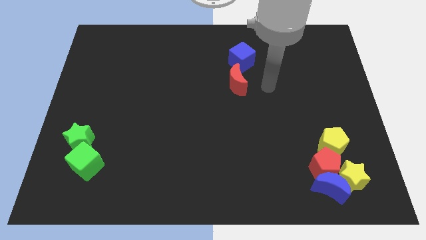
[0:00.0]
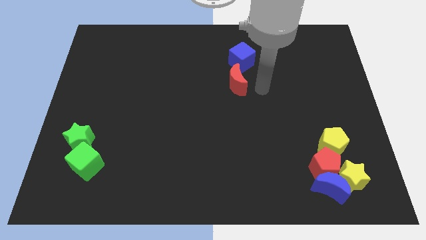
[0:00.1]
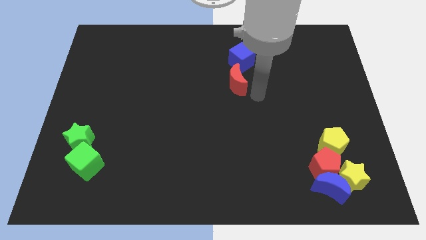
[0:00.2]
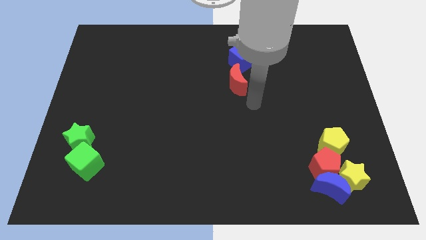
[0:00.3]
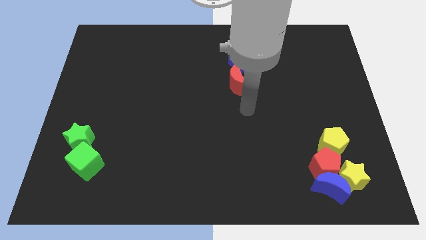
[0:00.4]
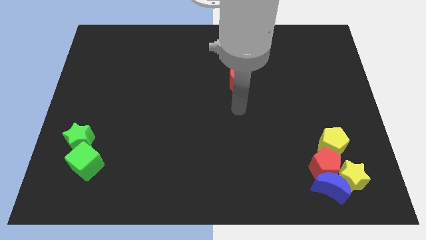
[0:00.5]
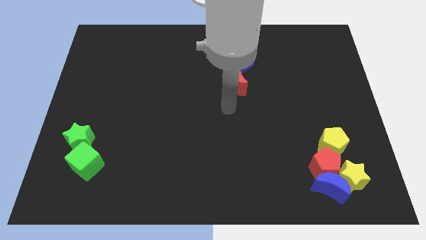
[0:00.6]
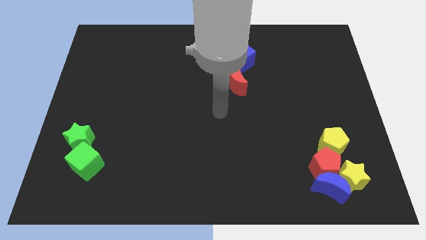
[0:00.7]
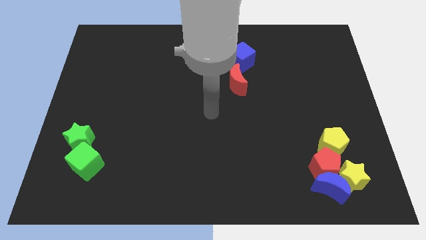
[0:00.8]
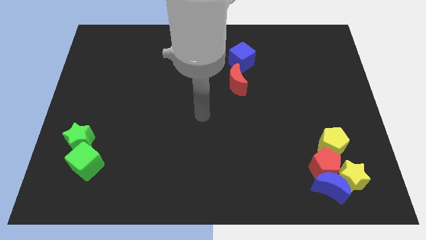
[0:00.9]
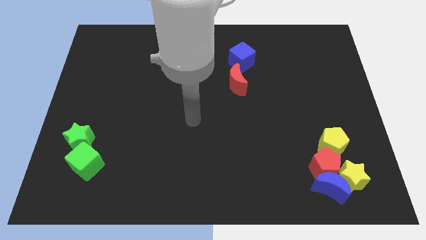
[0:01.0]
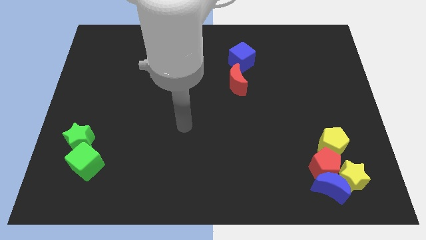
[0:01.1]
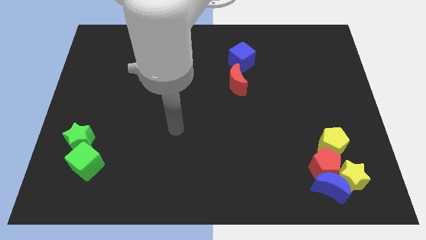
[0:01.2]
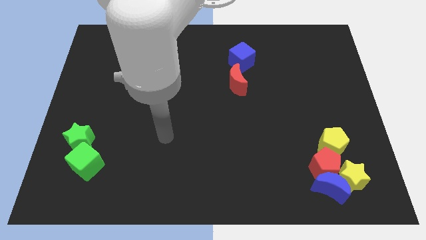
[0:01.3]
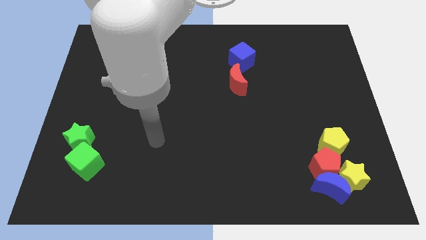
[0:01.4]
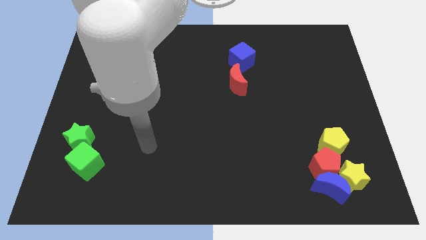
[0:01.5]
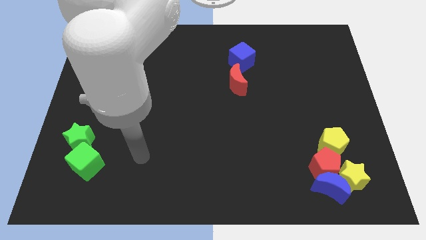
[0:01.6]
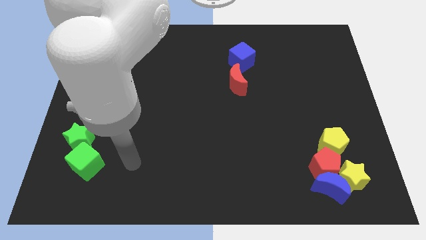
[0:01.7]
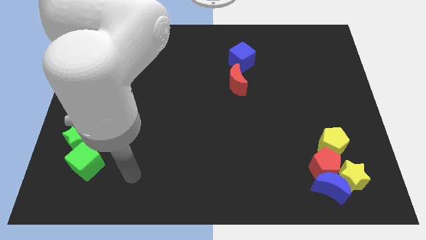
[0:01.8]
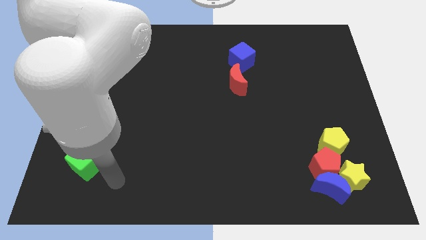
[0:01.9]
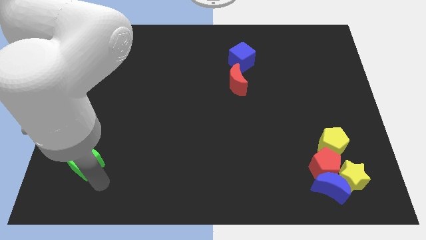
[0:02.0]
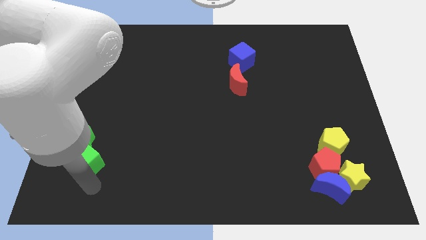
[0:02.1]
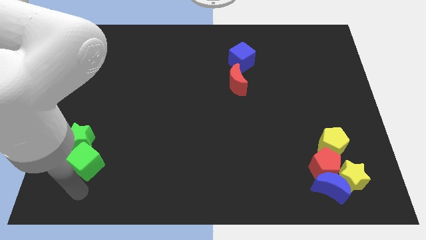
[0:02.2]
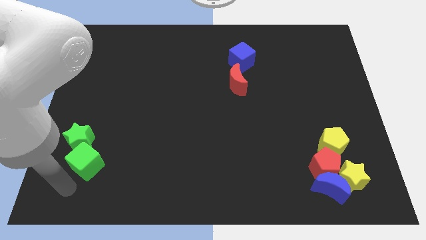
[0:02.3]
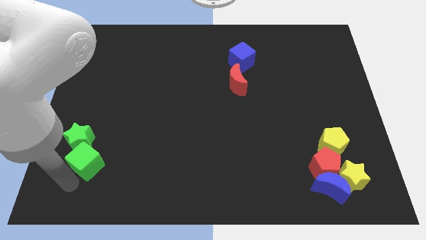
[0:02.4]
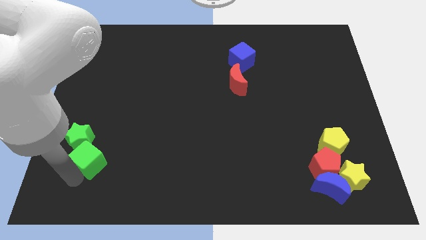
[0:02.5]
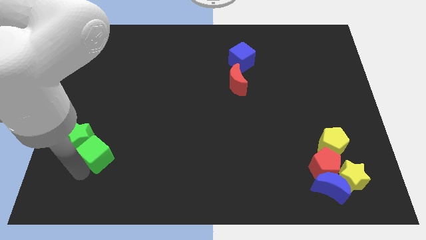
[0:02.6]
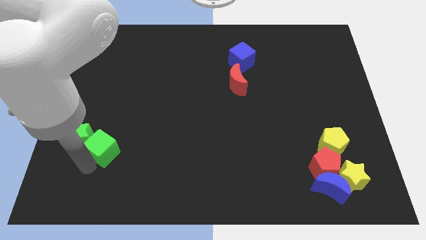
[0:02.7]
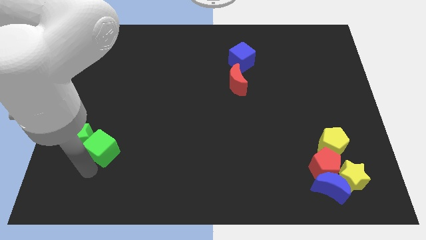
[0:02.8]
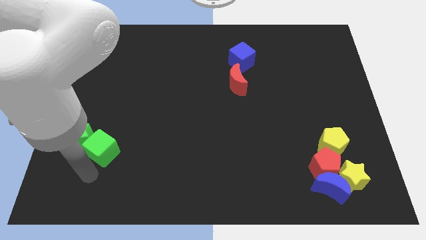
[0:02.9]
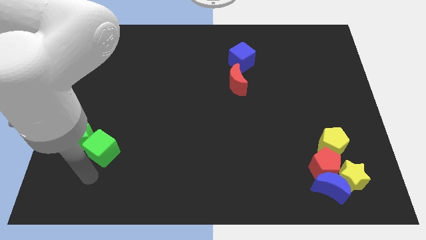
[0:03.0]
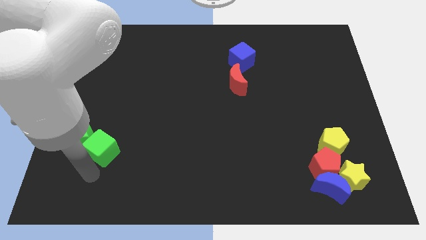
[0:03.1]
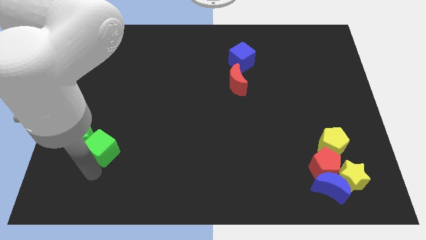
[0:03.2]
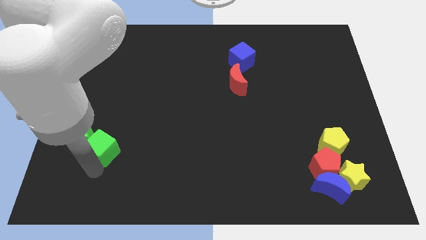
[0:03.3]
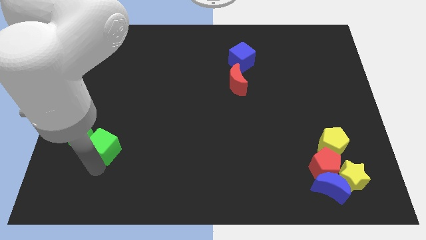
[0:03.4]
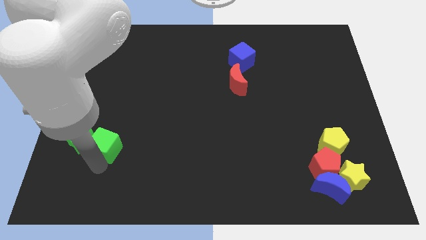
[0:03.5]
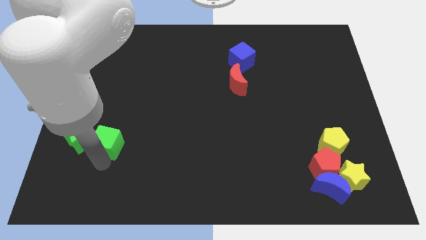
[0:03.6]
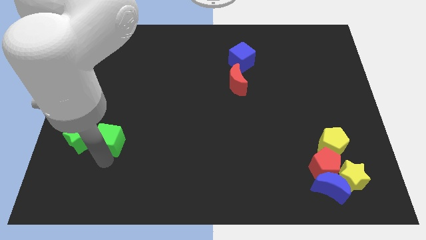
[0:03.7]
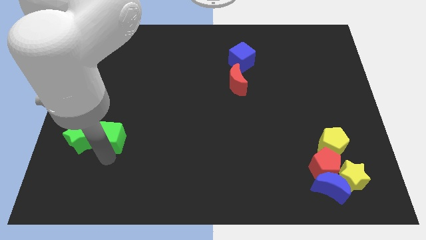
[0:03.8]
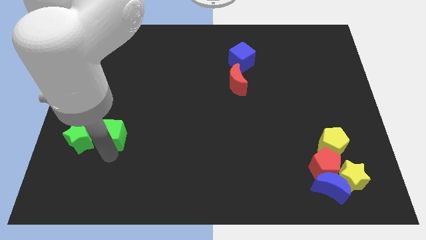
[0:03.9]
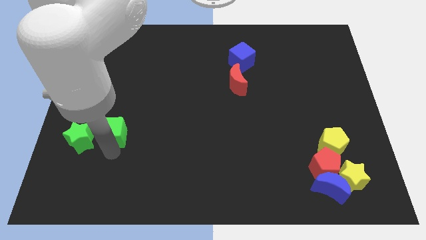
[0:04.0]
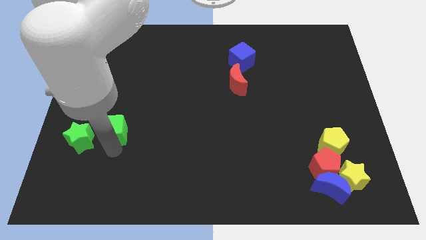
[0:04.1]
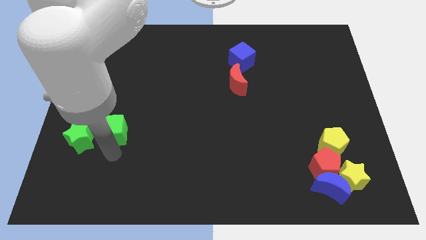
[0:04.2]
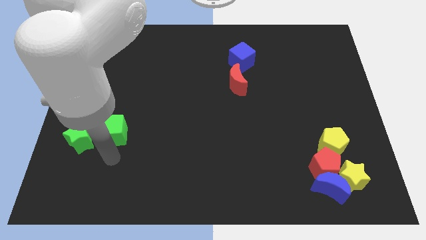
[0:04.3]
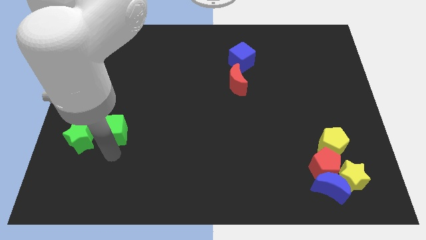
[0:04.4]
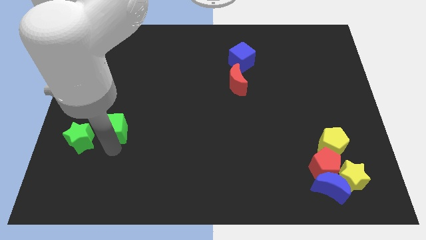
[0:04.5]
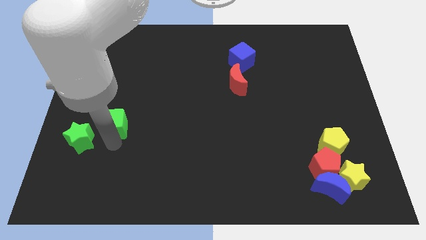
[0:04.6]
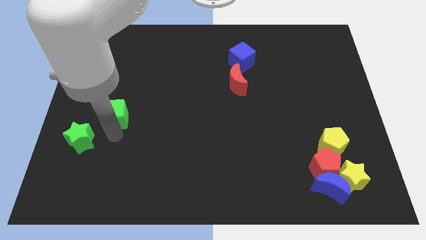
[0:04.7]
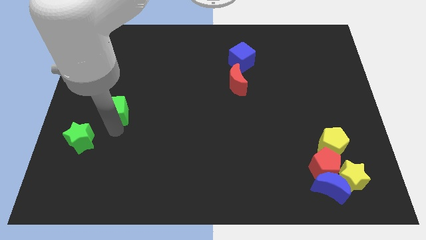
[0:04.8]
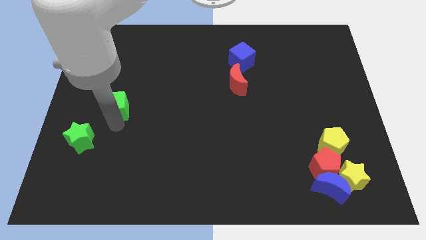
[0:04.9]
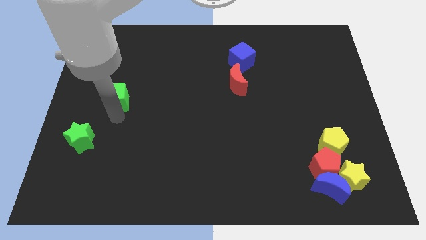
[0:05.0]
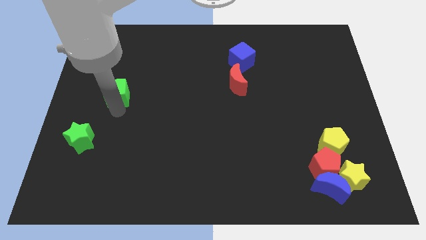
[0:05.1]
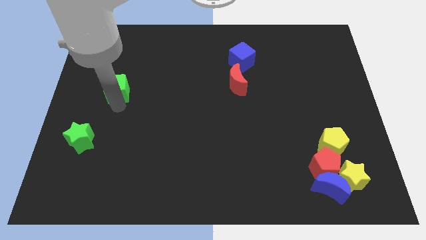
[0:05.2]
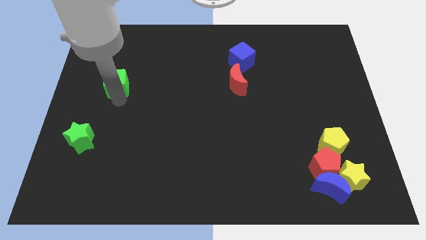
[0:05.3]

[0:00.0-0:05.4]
slide the green cube upwards

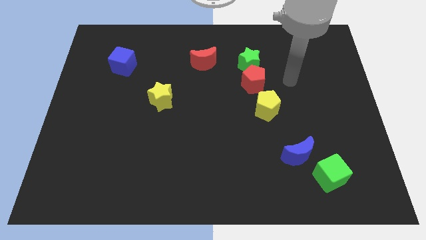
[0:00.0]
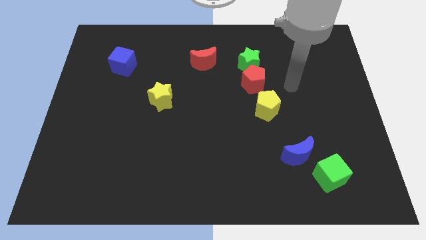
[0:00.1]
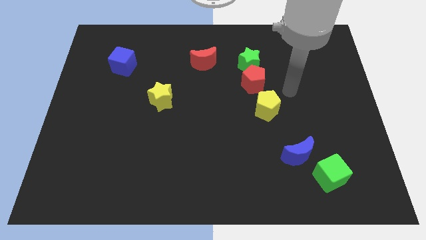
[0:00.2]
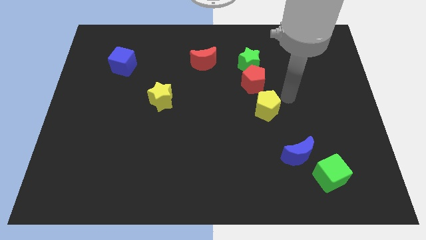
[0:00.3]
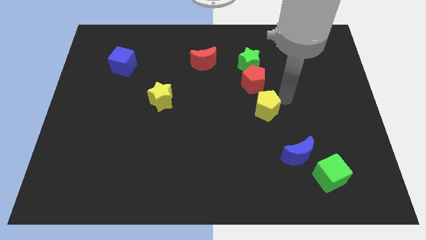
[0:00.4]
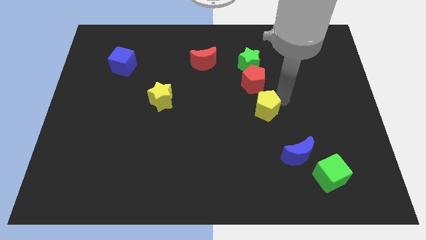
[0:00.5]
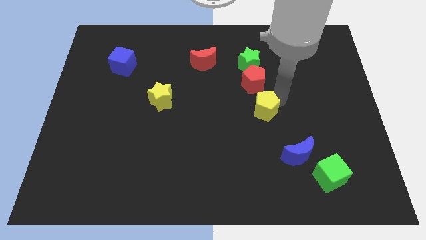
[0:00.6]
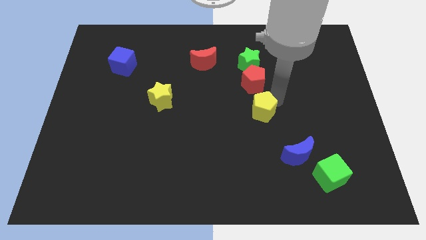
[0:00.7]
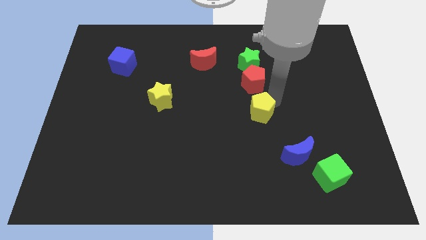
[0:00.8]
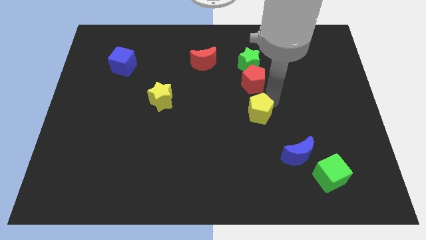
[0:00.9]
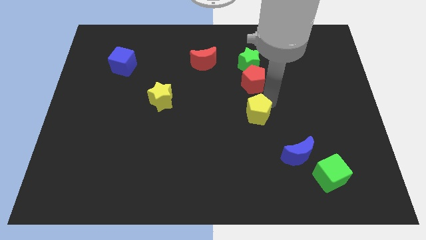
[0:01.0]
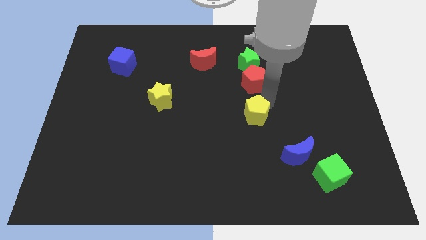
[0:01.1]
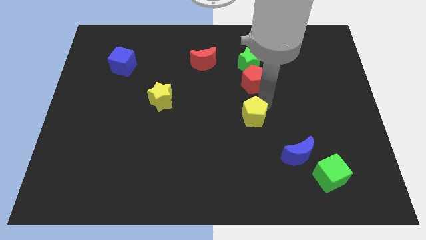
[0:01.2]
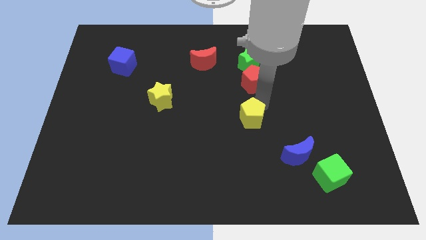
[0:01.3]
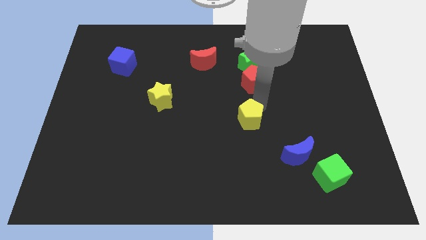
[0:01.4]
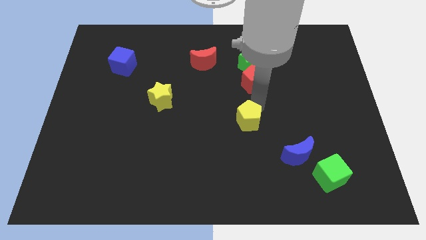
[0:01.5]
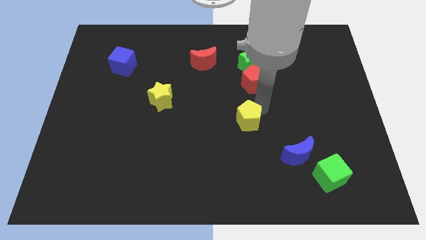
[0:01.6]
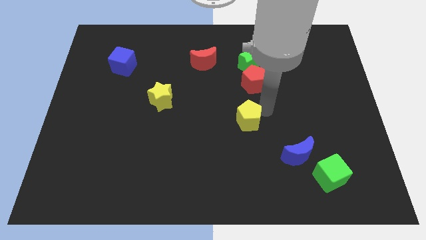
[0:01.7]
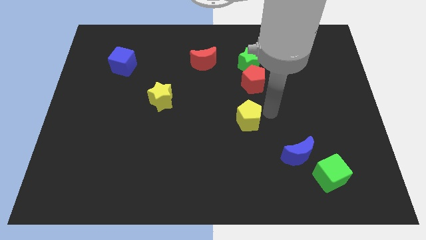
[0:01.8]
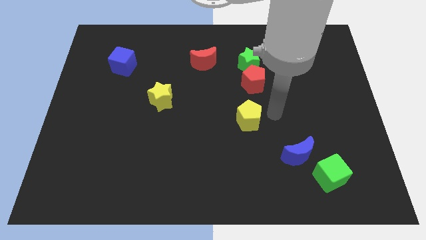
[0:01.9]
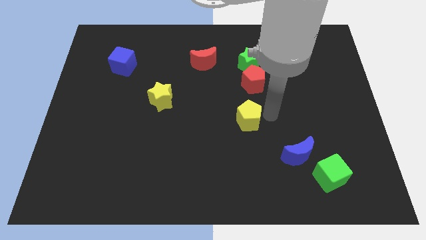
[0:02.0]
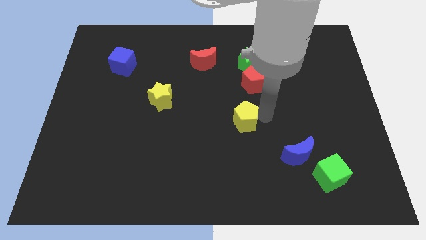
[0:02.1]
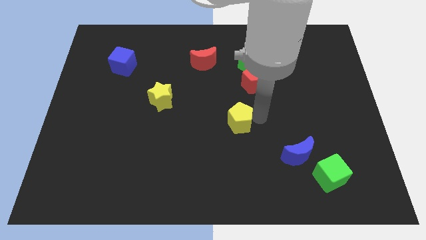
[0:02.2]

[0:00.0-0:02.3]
slide the yellow pentagon downwards and left a bit

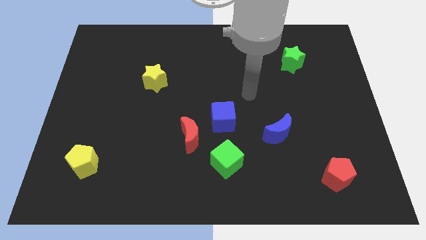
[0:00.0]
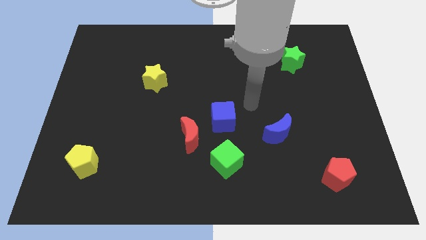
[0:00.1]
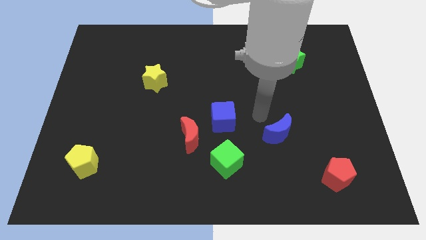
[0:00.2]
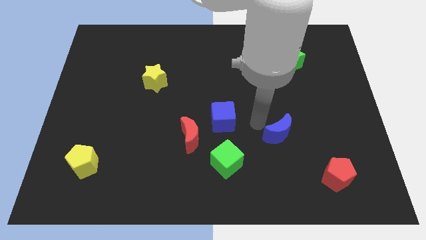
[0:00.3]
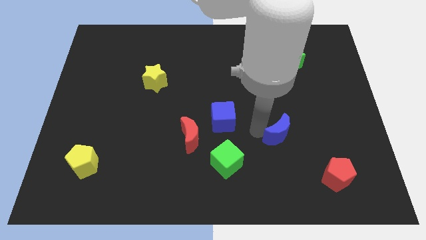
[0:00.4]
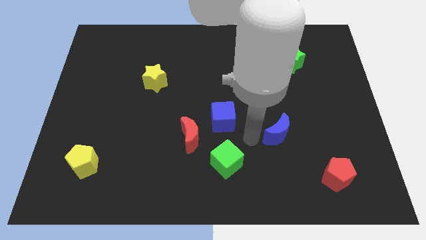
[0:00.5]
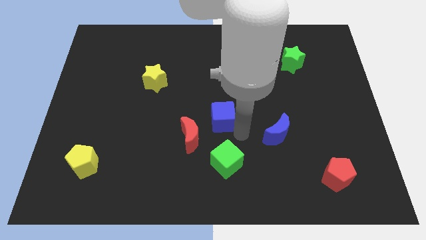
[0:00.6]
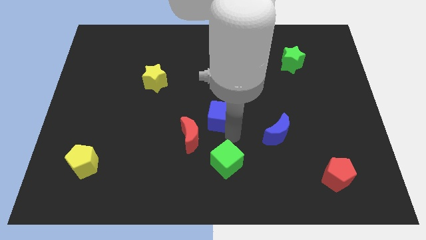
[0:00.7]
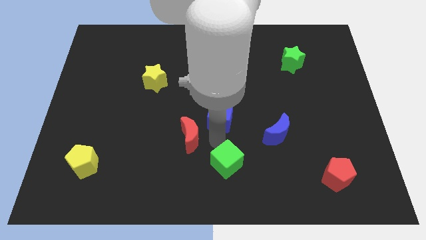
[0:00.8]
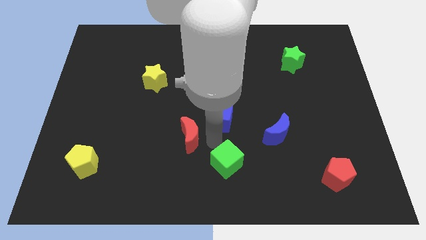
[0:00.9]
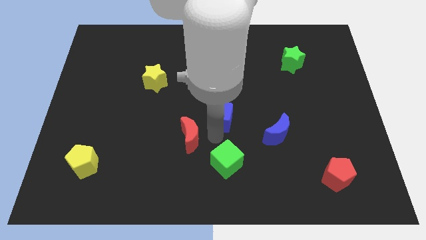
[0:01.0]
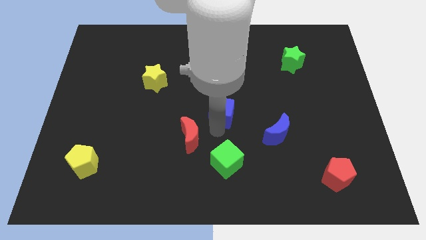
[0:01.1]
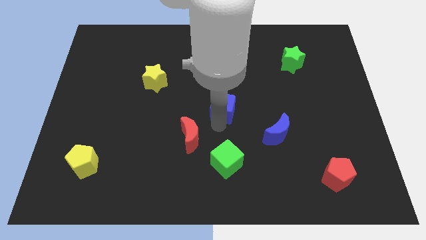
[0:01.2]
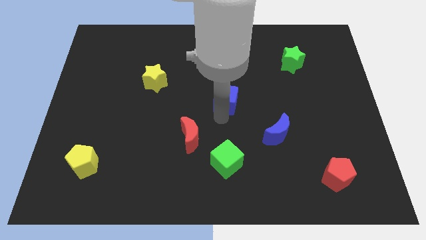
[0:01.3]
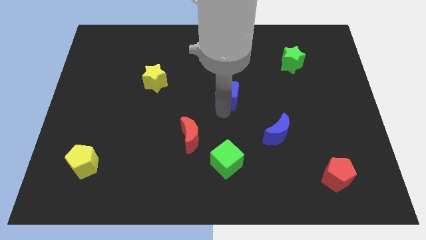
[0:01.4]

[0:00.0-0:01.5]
slide the blue cube a little upwards
